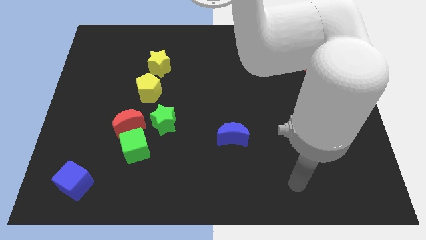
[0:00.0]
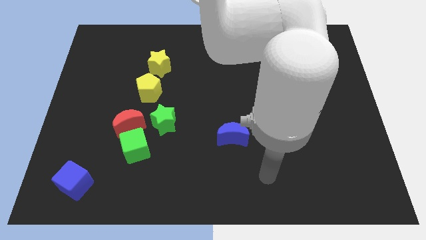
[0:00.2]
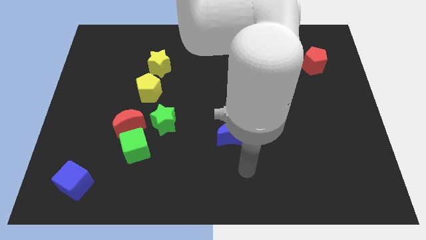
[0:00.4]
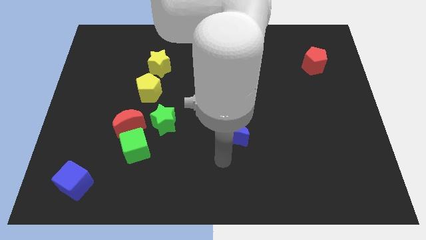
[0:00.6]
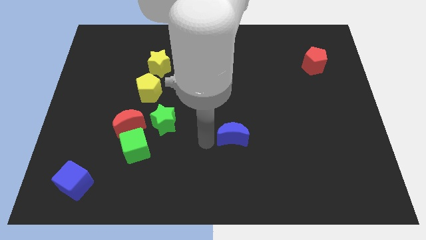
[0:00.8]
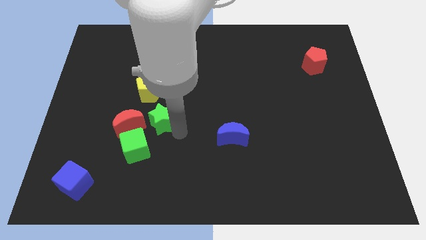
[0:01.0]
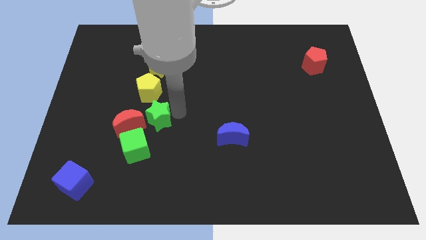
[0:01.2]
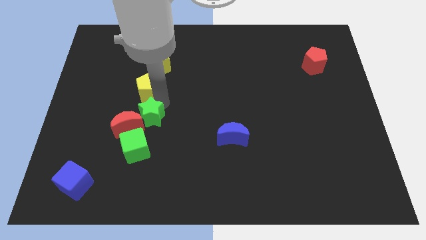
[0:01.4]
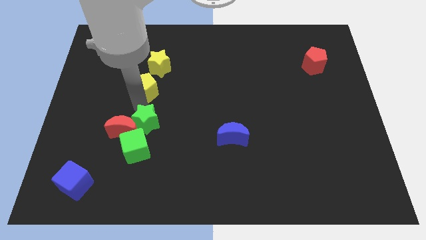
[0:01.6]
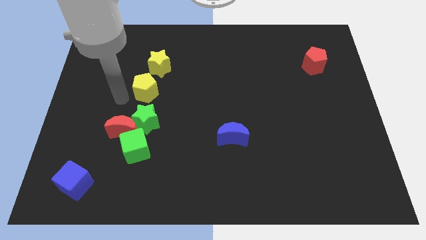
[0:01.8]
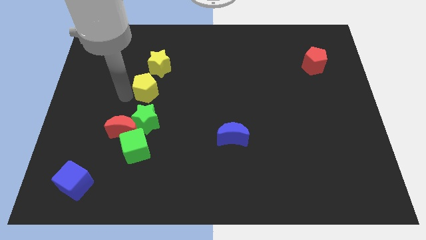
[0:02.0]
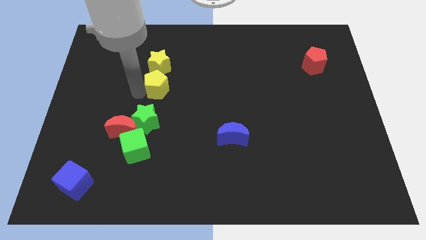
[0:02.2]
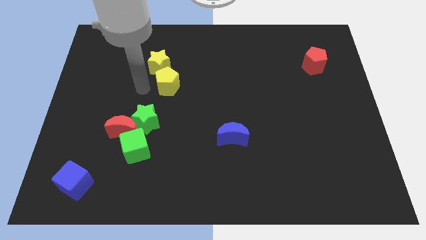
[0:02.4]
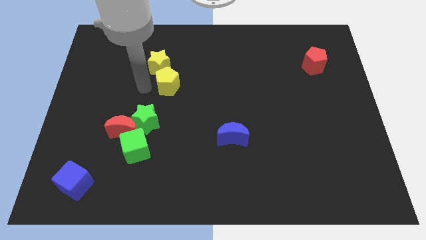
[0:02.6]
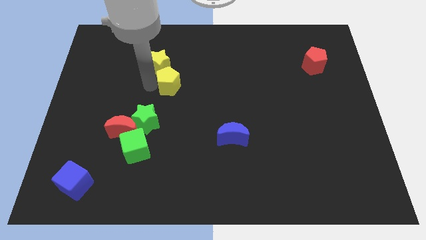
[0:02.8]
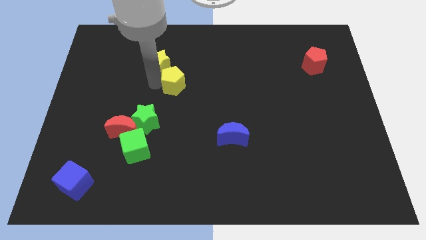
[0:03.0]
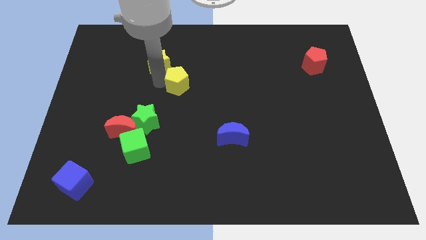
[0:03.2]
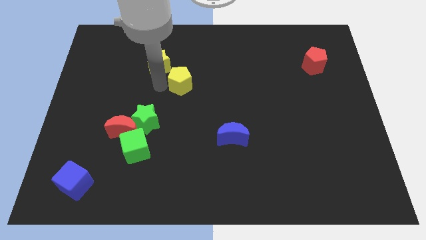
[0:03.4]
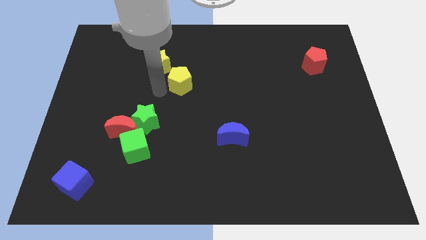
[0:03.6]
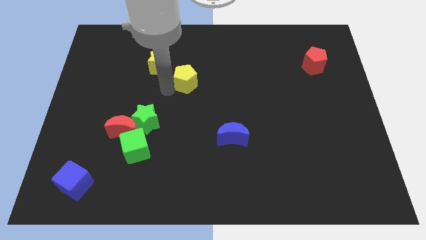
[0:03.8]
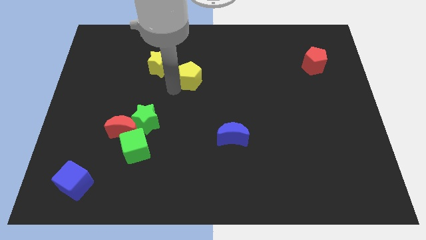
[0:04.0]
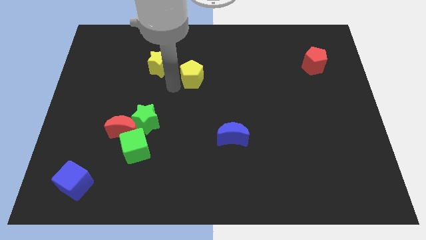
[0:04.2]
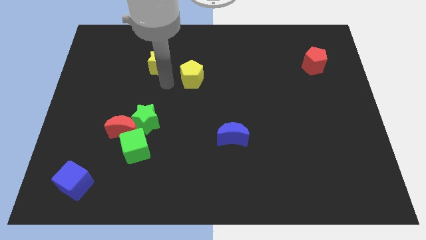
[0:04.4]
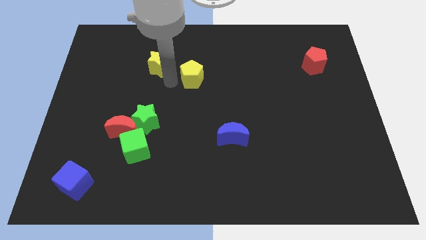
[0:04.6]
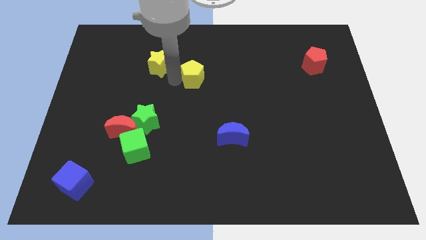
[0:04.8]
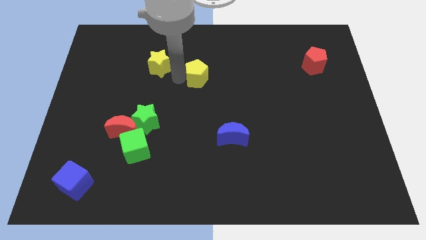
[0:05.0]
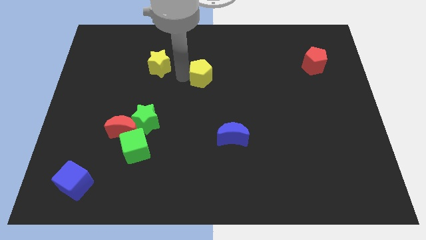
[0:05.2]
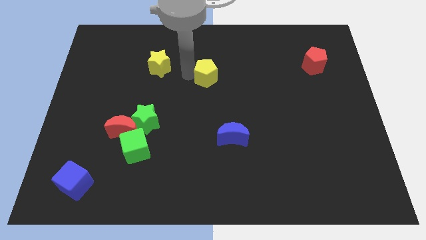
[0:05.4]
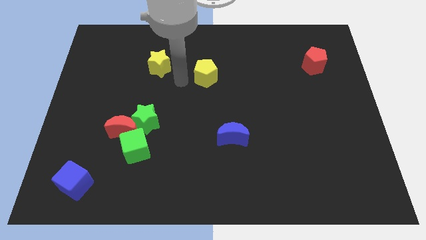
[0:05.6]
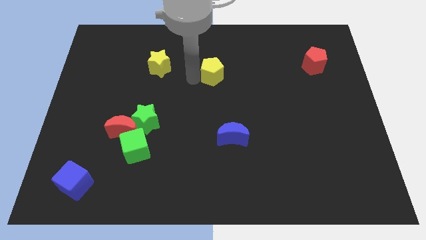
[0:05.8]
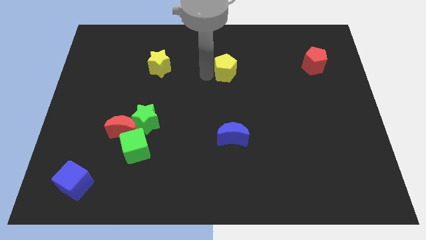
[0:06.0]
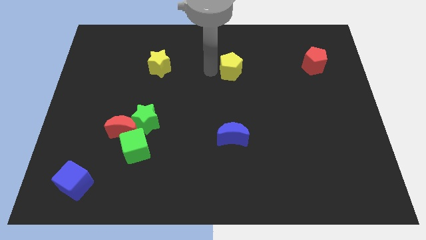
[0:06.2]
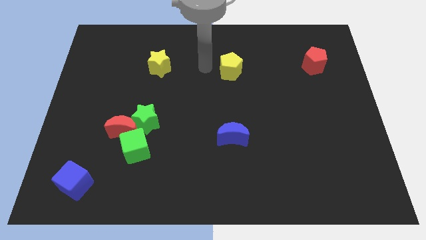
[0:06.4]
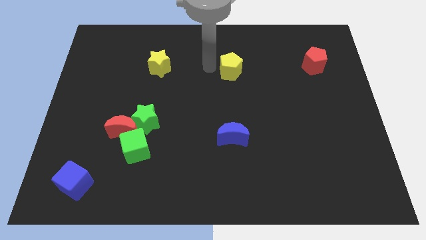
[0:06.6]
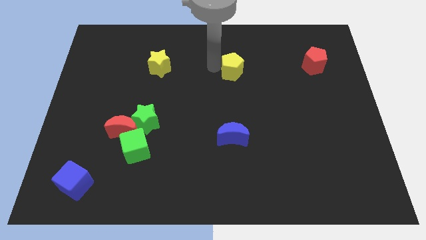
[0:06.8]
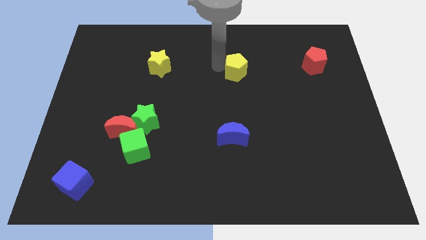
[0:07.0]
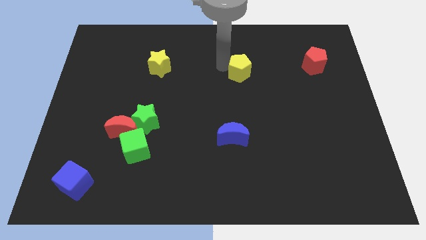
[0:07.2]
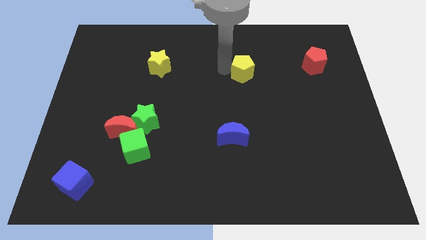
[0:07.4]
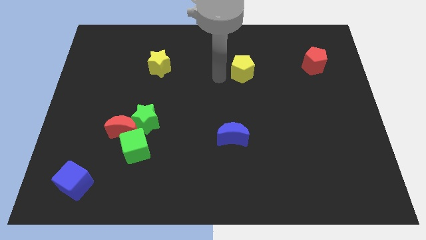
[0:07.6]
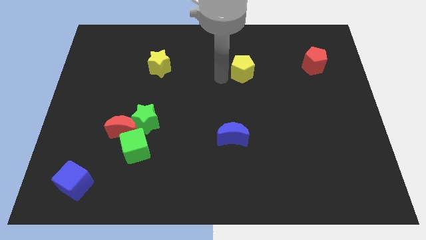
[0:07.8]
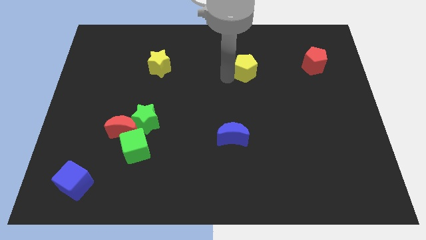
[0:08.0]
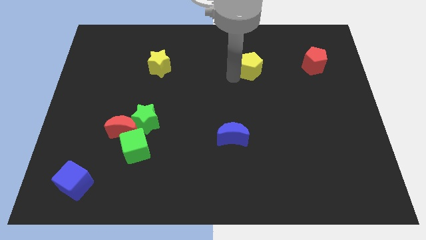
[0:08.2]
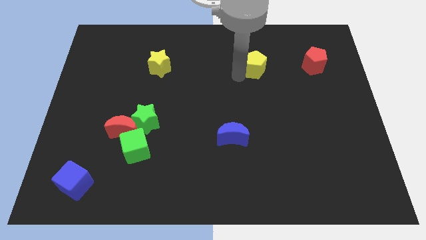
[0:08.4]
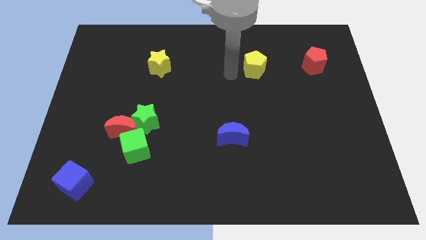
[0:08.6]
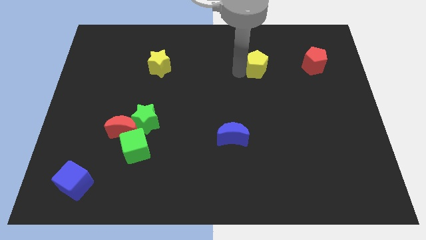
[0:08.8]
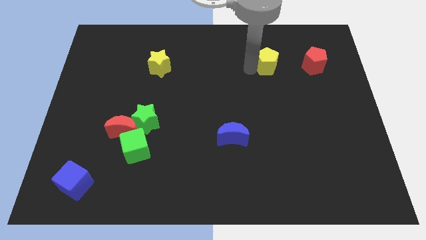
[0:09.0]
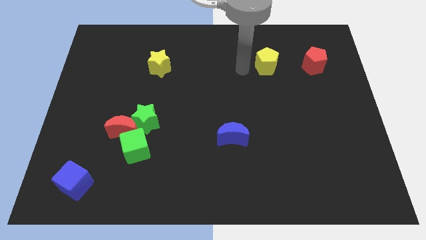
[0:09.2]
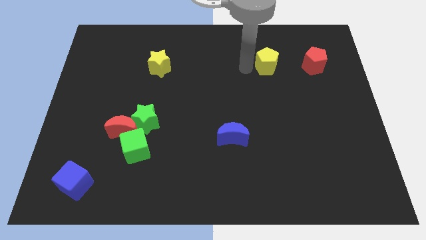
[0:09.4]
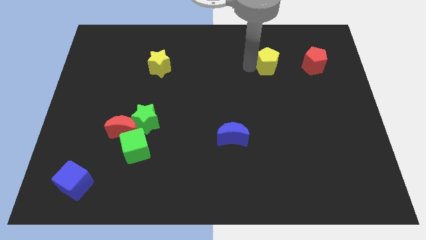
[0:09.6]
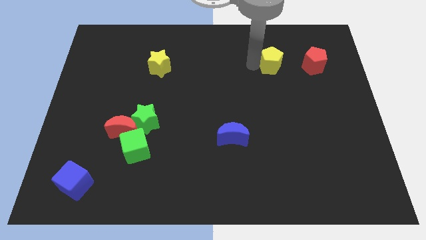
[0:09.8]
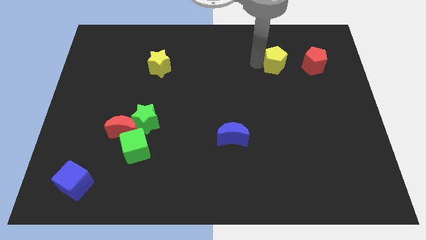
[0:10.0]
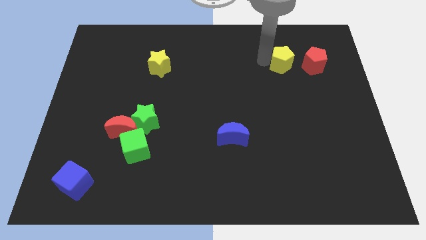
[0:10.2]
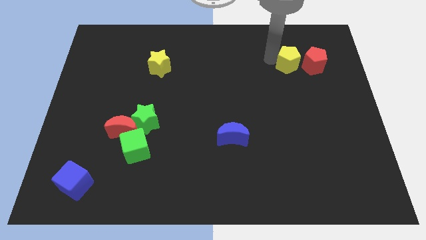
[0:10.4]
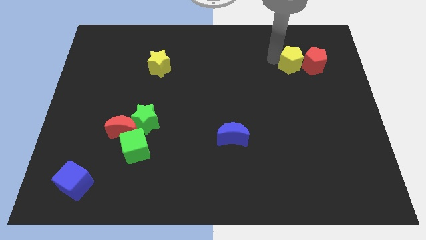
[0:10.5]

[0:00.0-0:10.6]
put the yellow pentagon next to the red pentagon

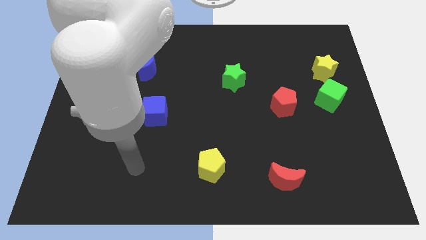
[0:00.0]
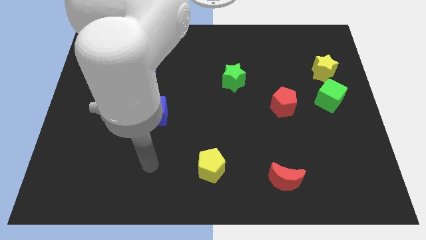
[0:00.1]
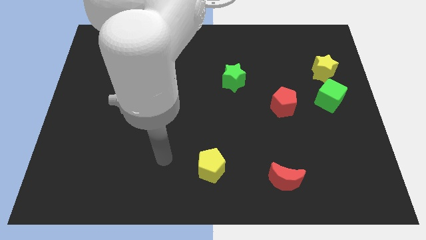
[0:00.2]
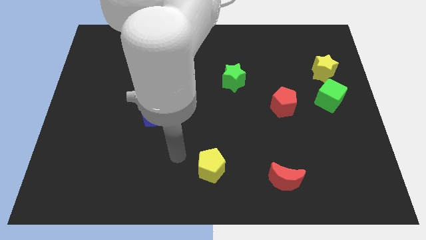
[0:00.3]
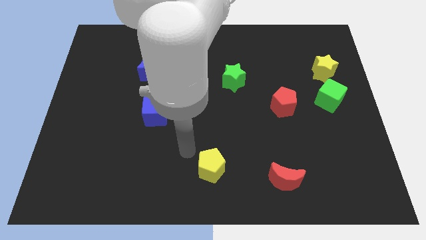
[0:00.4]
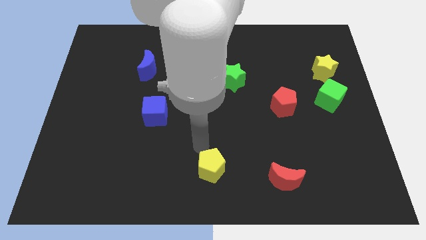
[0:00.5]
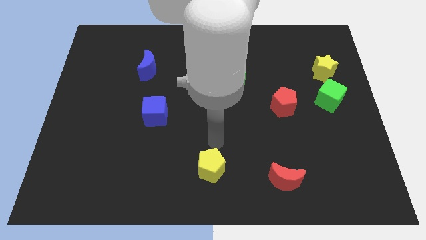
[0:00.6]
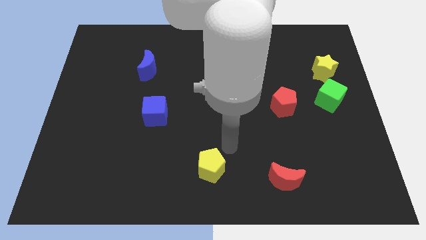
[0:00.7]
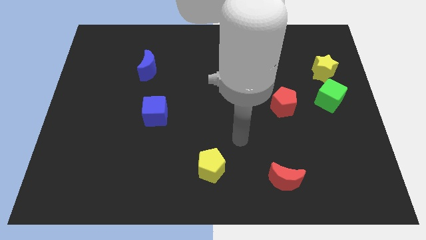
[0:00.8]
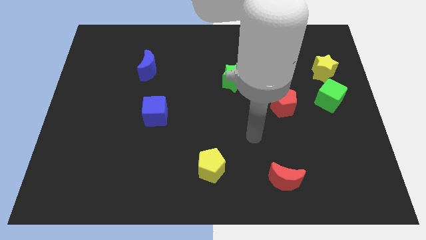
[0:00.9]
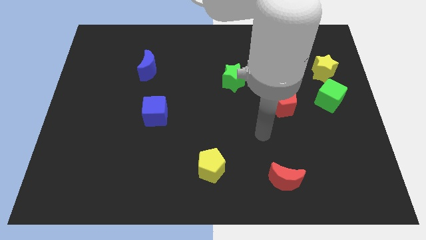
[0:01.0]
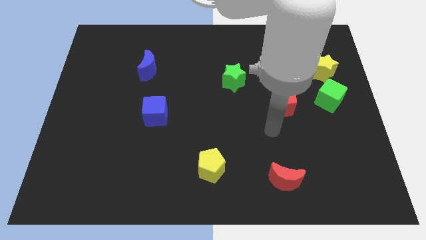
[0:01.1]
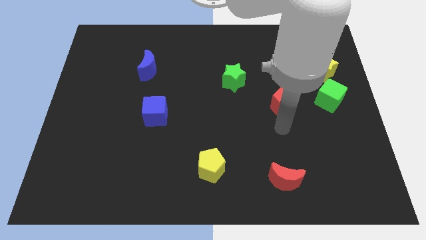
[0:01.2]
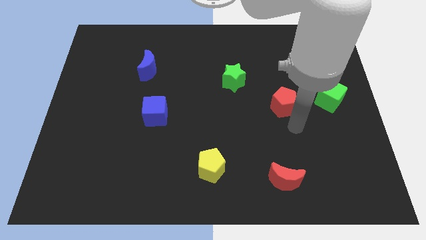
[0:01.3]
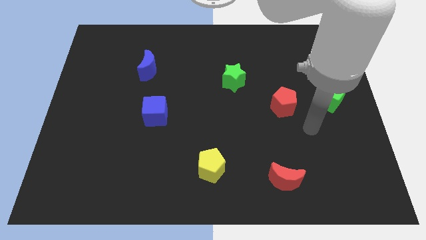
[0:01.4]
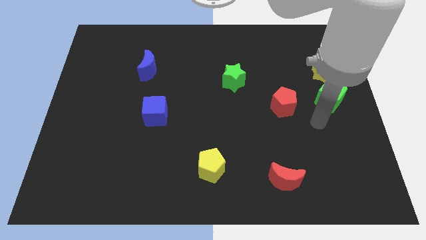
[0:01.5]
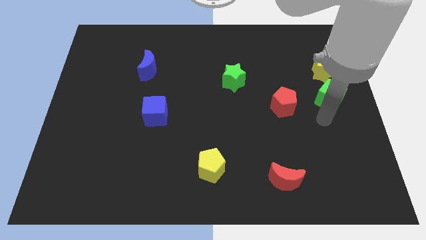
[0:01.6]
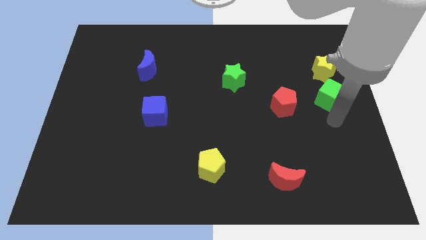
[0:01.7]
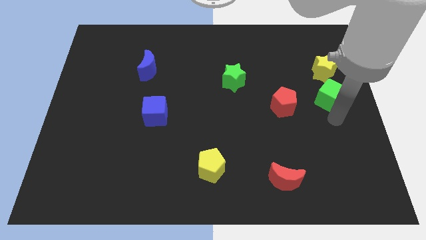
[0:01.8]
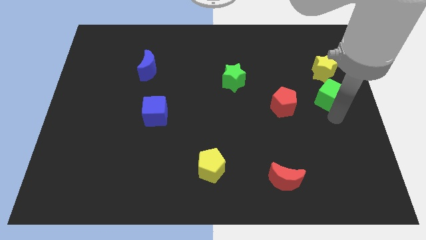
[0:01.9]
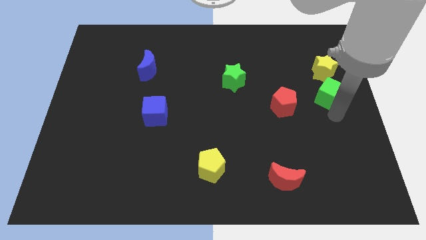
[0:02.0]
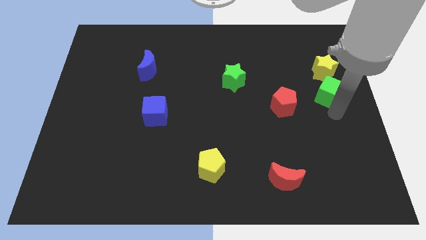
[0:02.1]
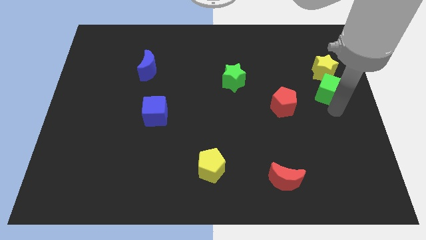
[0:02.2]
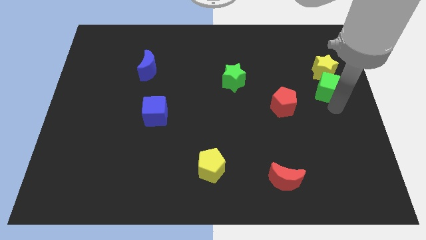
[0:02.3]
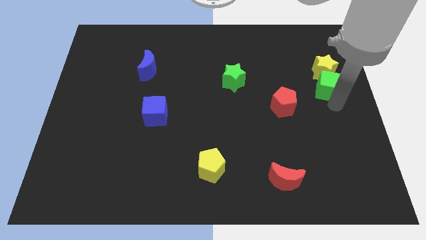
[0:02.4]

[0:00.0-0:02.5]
push the green cube to the yellow star
